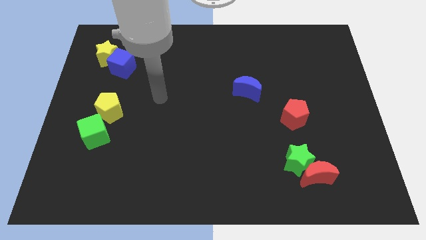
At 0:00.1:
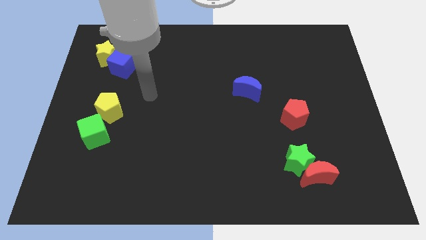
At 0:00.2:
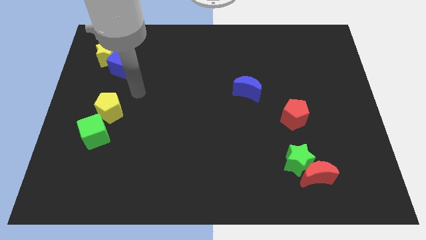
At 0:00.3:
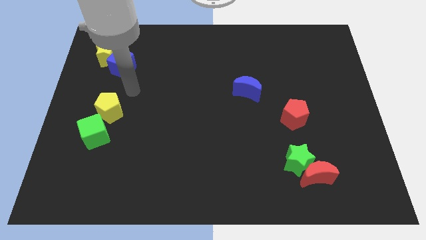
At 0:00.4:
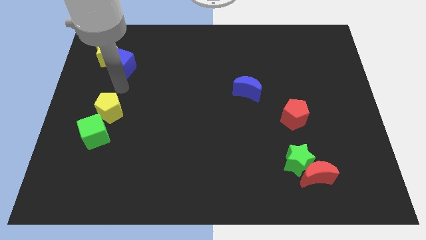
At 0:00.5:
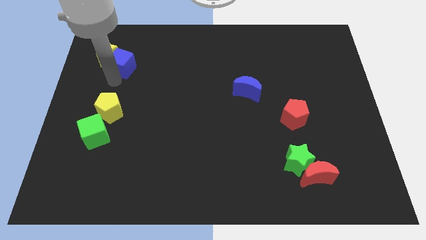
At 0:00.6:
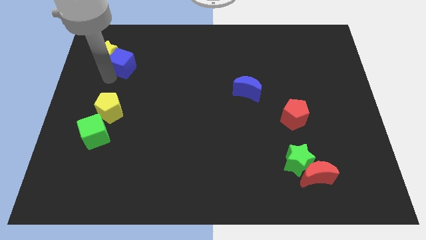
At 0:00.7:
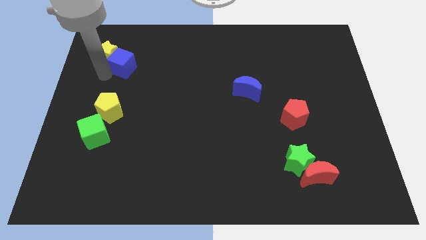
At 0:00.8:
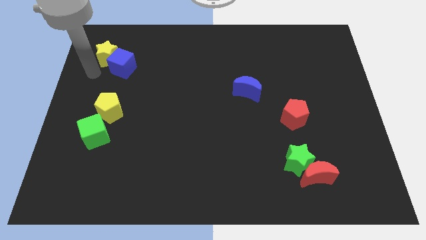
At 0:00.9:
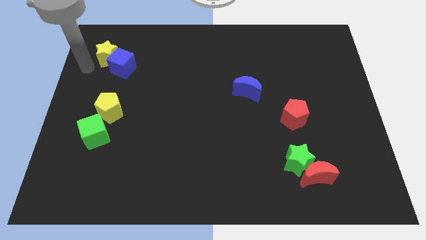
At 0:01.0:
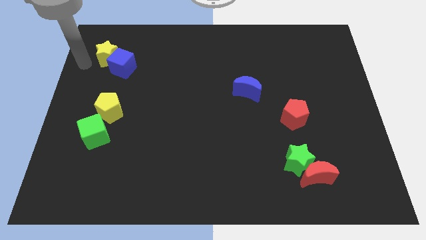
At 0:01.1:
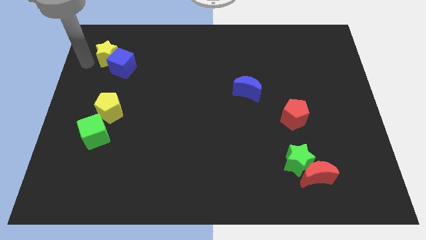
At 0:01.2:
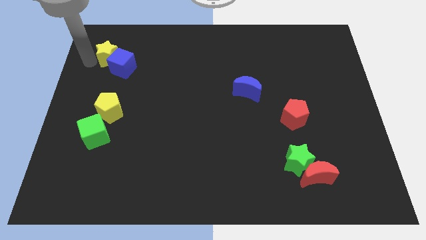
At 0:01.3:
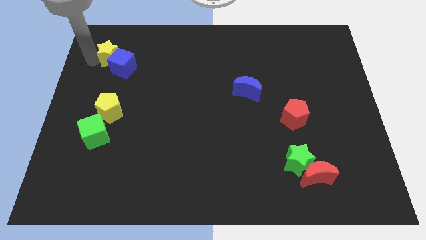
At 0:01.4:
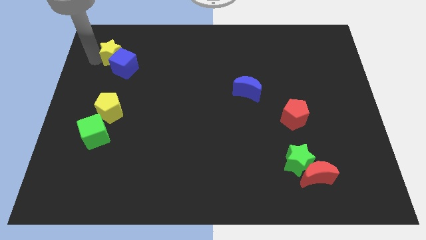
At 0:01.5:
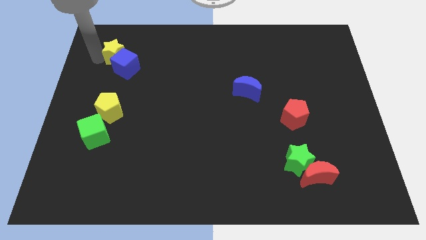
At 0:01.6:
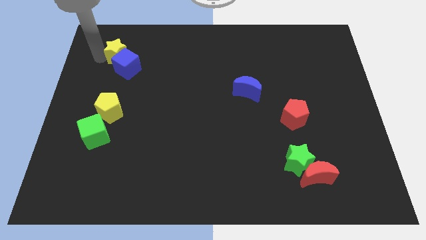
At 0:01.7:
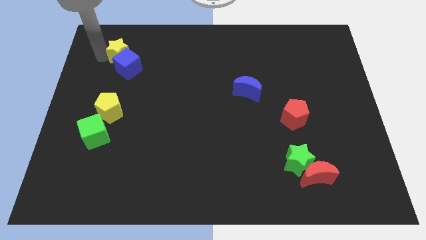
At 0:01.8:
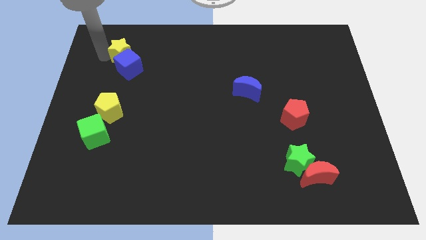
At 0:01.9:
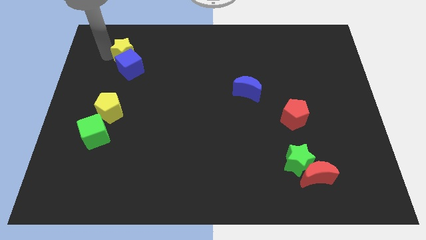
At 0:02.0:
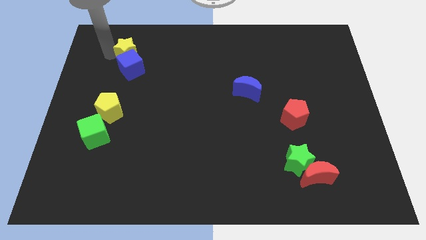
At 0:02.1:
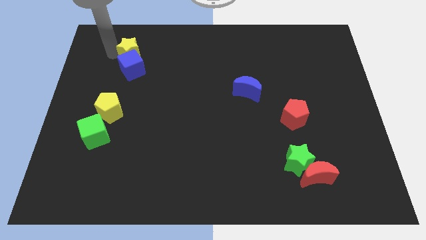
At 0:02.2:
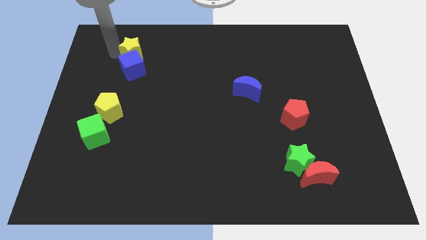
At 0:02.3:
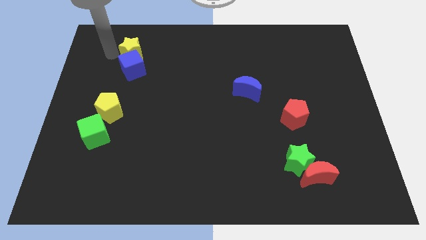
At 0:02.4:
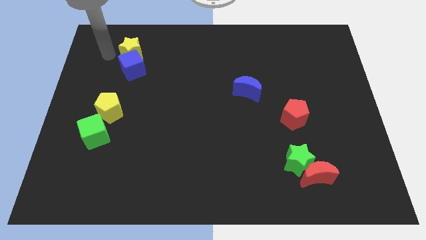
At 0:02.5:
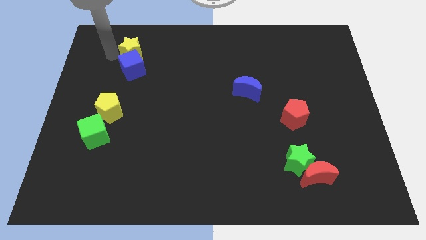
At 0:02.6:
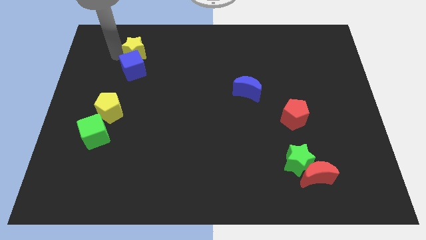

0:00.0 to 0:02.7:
slide the yellow star right somewhat

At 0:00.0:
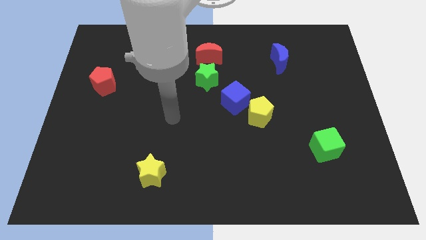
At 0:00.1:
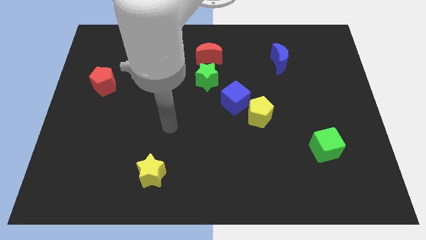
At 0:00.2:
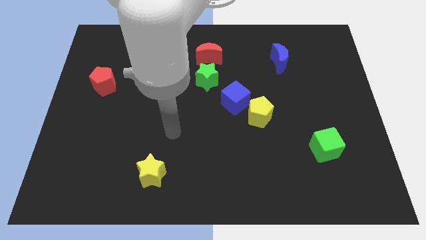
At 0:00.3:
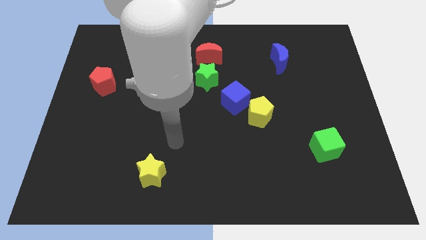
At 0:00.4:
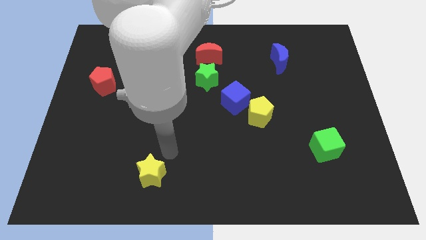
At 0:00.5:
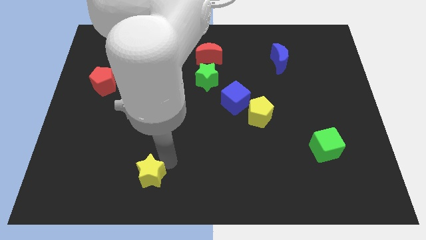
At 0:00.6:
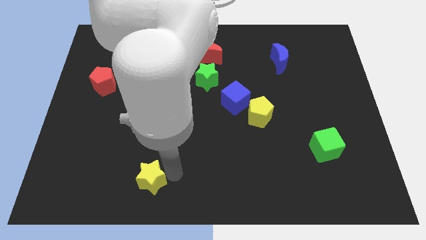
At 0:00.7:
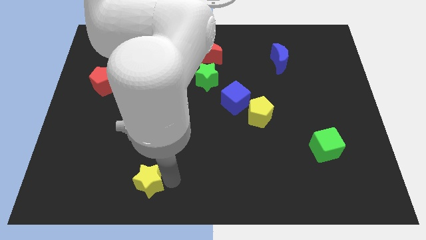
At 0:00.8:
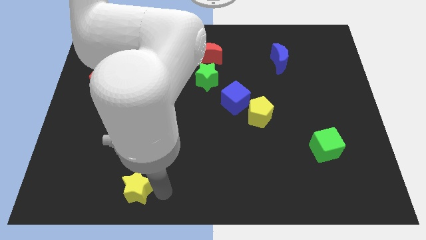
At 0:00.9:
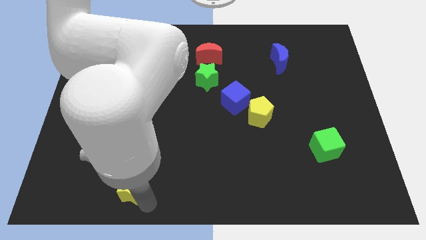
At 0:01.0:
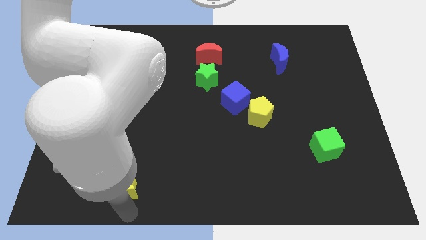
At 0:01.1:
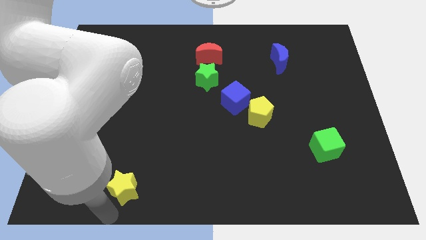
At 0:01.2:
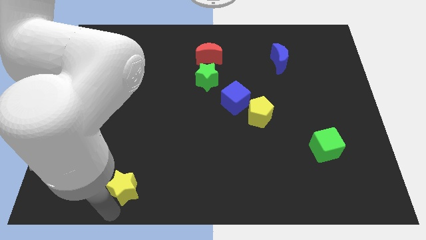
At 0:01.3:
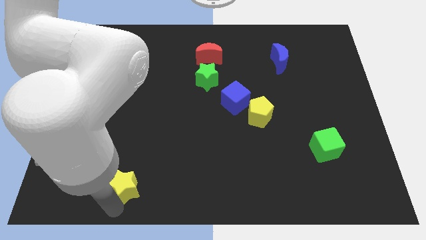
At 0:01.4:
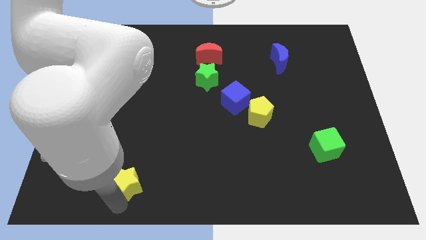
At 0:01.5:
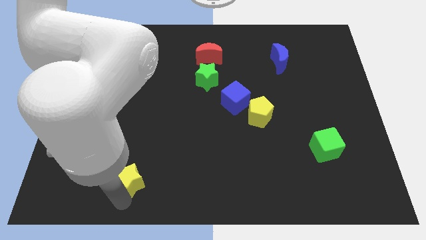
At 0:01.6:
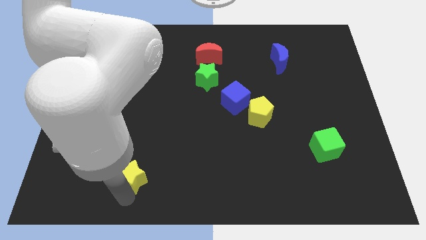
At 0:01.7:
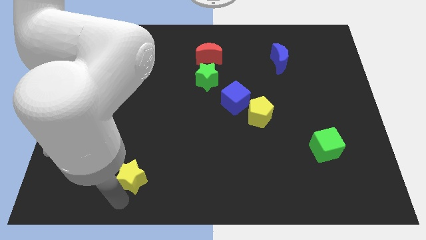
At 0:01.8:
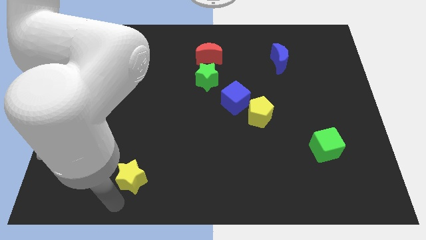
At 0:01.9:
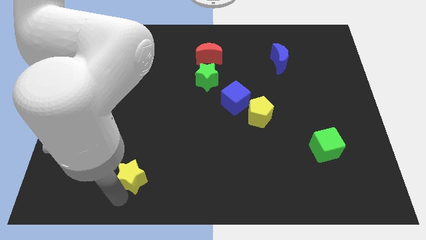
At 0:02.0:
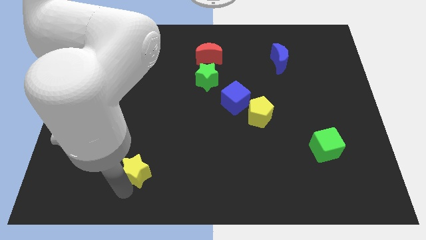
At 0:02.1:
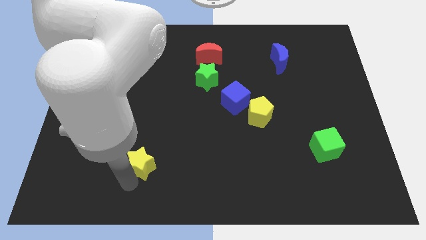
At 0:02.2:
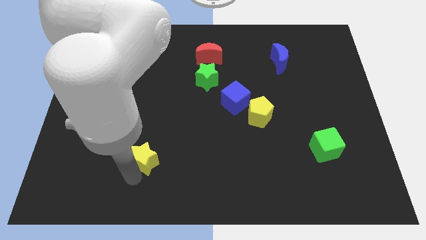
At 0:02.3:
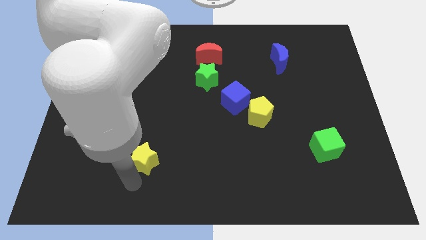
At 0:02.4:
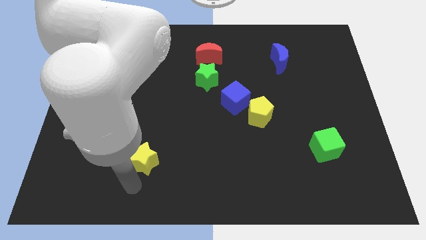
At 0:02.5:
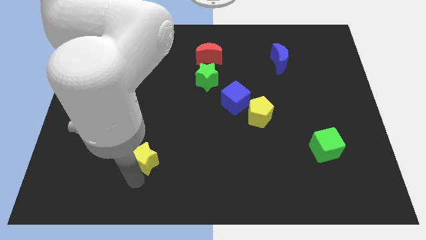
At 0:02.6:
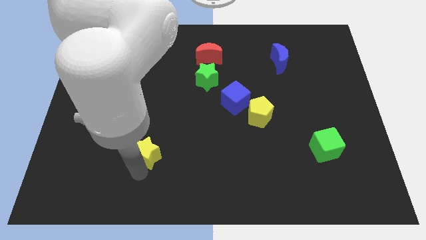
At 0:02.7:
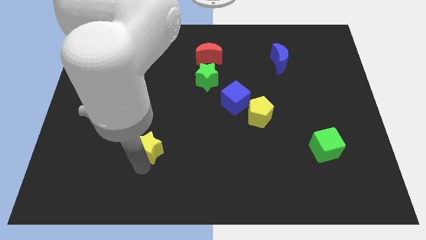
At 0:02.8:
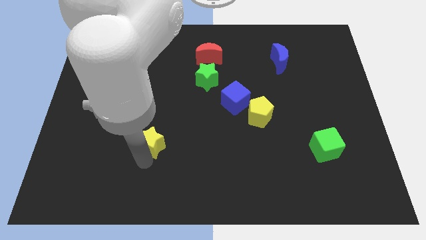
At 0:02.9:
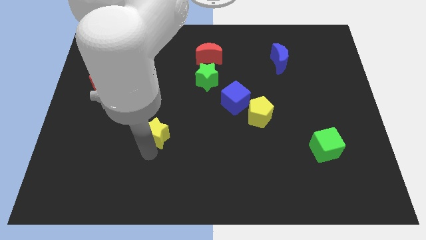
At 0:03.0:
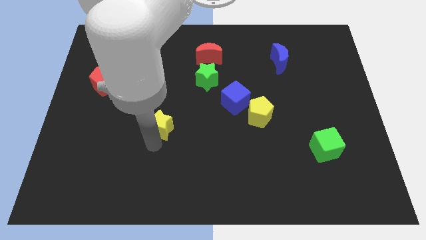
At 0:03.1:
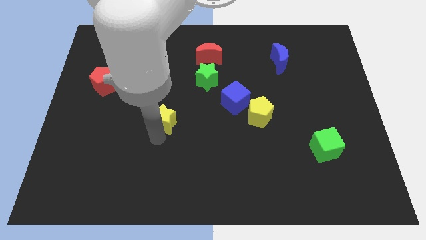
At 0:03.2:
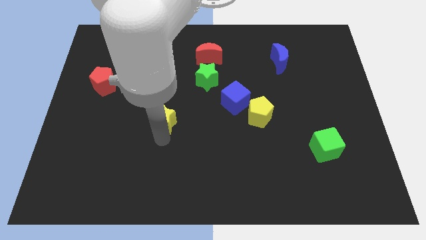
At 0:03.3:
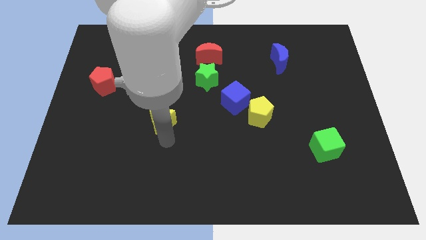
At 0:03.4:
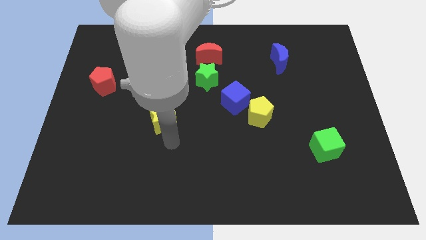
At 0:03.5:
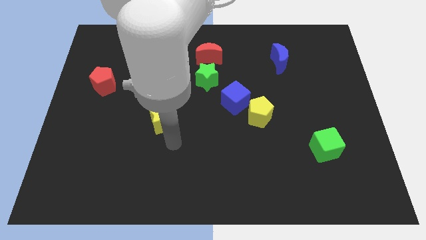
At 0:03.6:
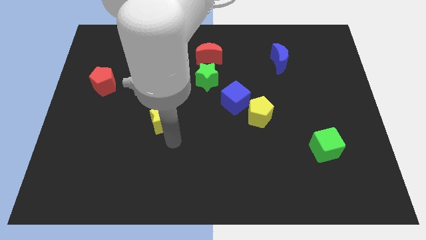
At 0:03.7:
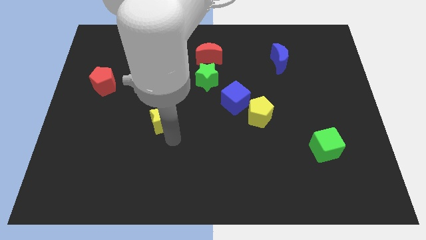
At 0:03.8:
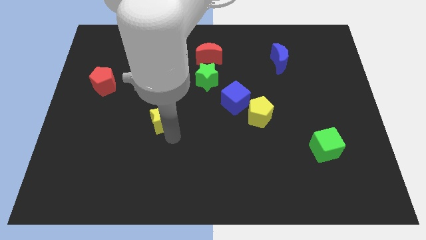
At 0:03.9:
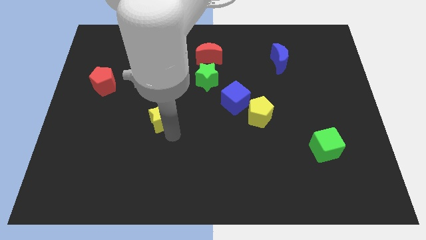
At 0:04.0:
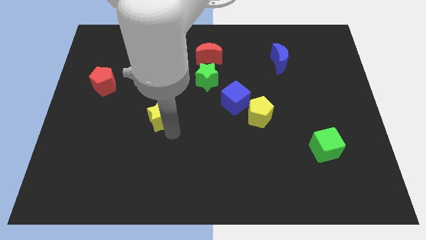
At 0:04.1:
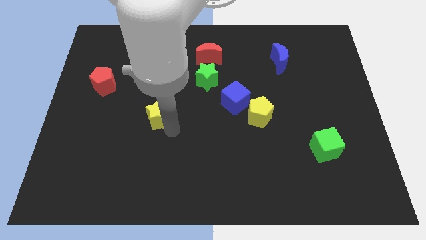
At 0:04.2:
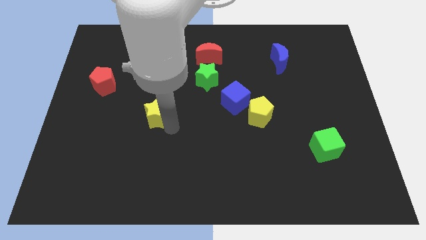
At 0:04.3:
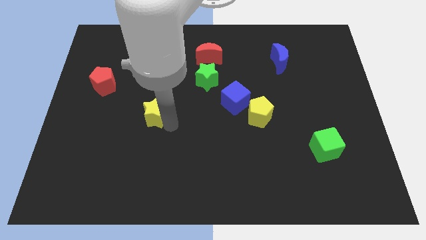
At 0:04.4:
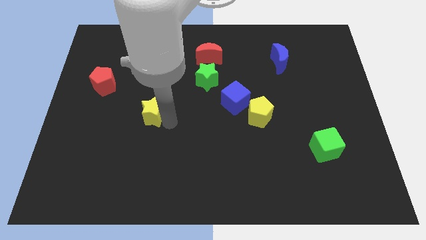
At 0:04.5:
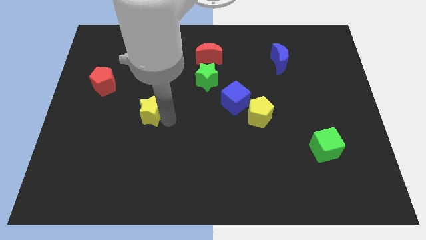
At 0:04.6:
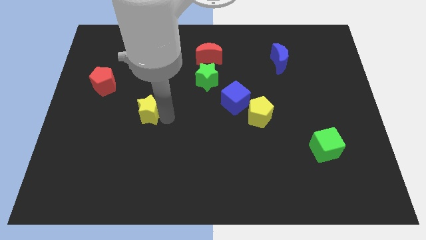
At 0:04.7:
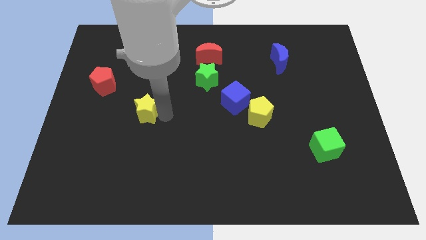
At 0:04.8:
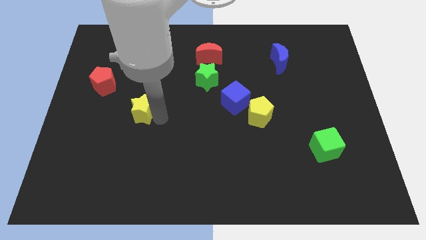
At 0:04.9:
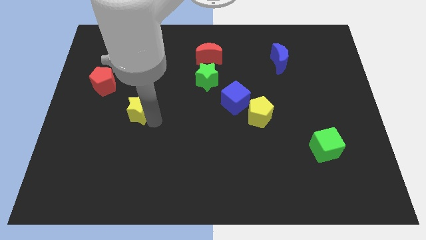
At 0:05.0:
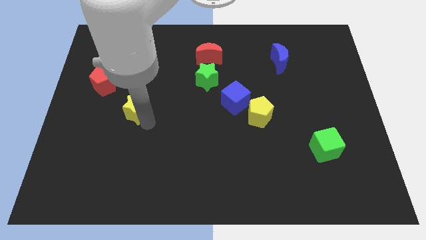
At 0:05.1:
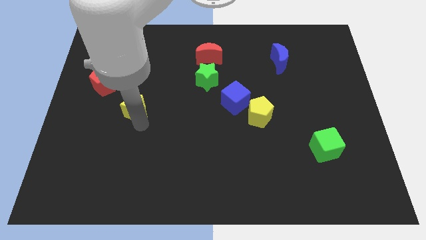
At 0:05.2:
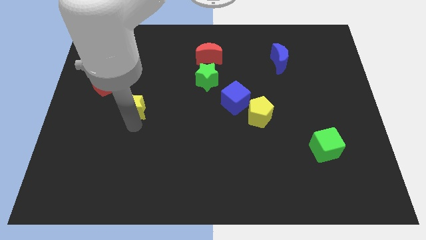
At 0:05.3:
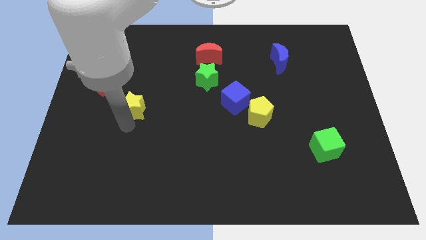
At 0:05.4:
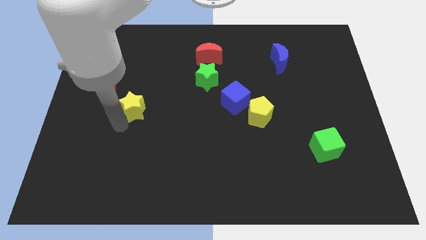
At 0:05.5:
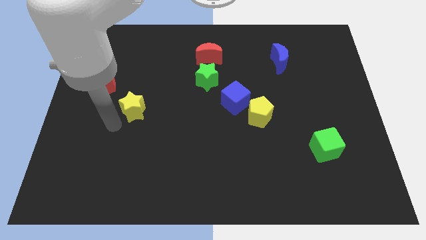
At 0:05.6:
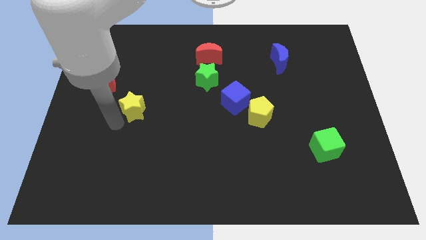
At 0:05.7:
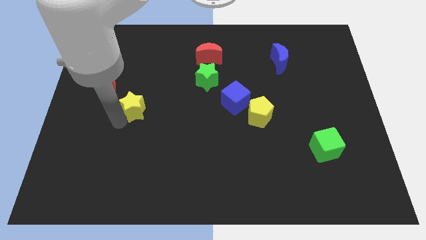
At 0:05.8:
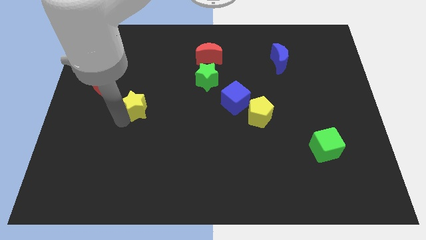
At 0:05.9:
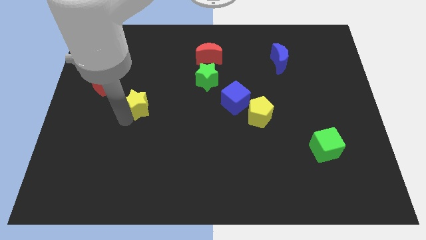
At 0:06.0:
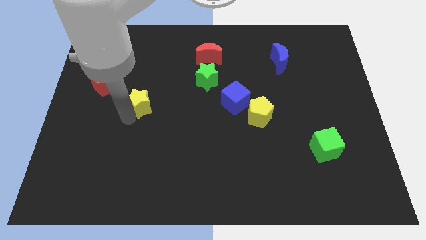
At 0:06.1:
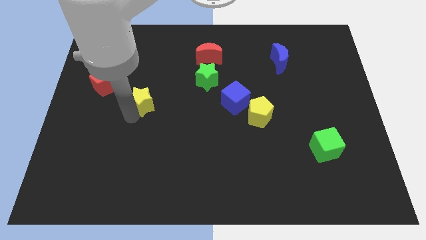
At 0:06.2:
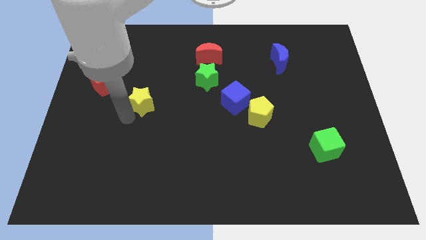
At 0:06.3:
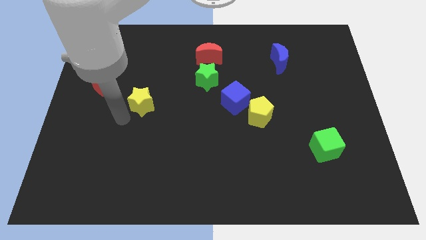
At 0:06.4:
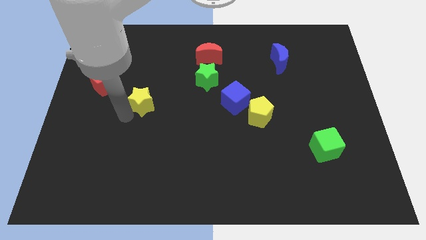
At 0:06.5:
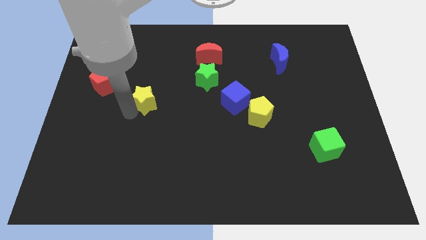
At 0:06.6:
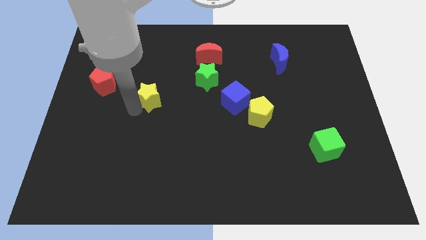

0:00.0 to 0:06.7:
slide the yellow star up
